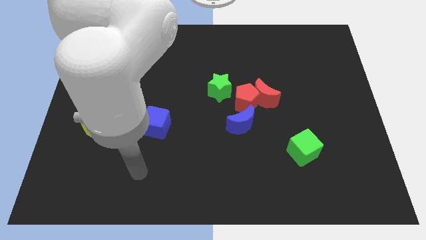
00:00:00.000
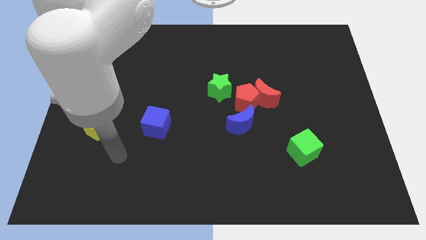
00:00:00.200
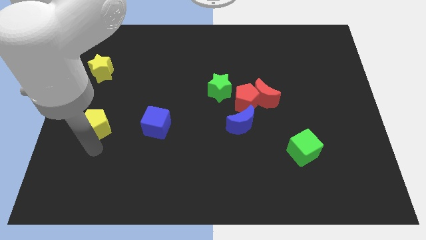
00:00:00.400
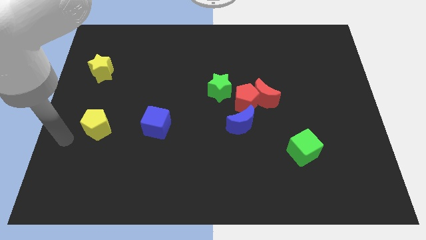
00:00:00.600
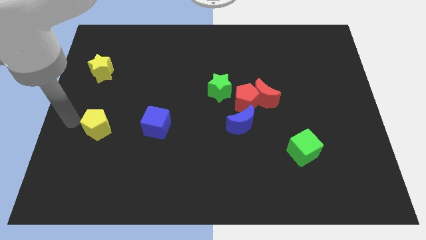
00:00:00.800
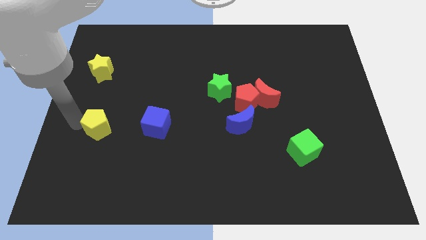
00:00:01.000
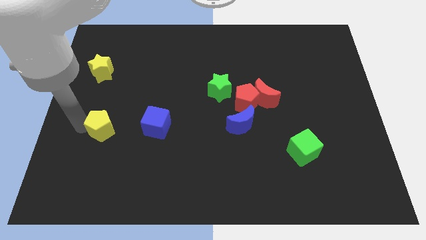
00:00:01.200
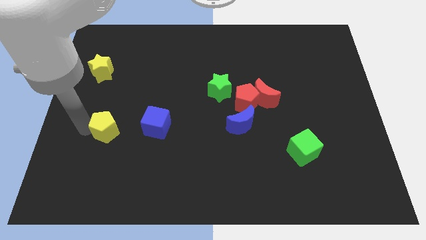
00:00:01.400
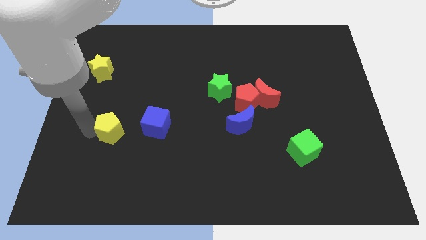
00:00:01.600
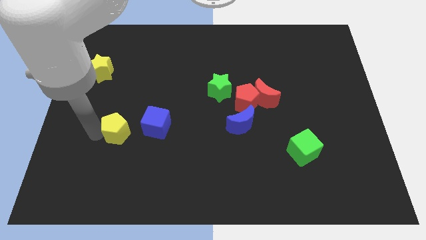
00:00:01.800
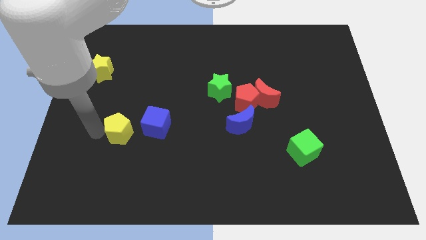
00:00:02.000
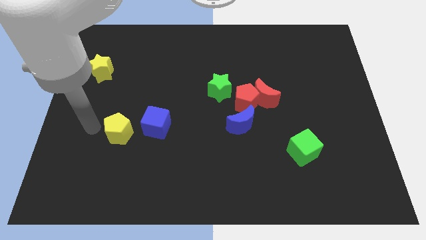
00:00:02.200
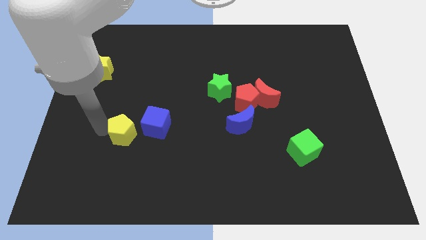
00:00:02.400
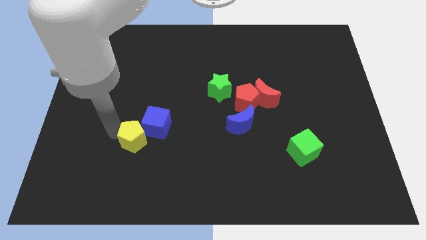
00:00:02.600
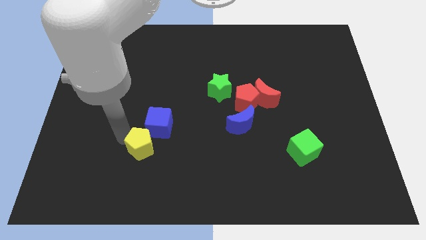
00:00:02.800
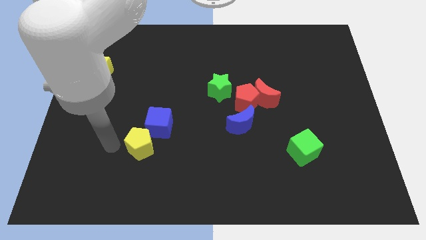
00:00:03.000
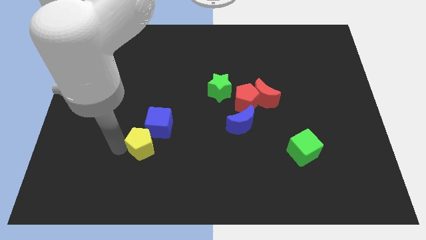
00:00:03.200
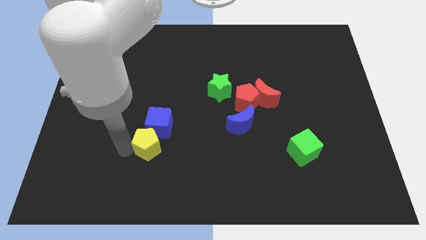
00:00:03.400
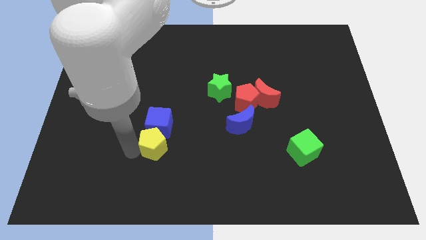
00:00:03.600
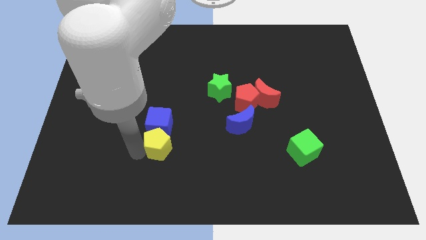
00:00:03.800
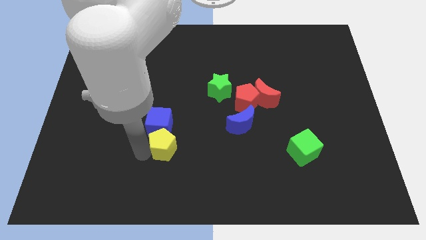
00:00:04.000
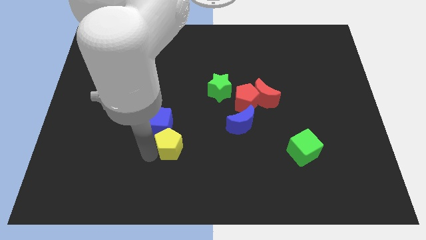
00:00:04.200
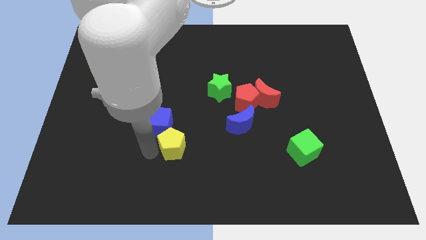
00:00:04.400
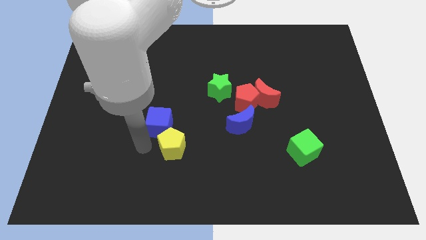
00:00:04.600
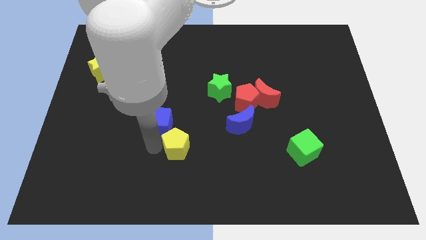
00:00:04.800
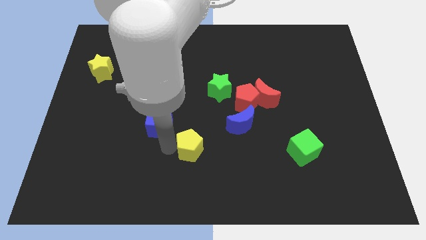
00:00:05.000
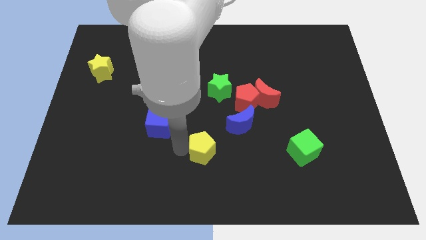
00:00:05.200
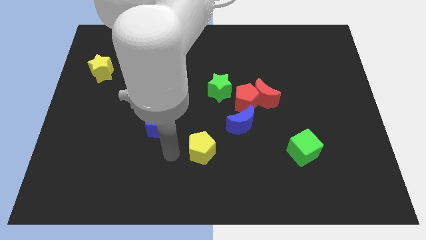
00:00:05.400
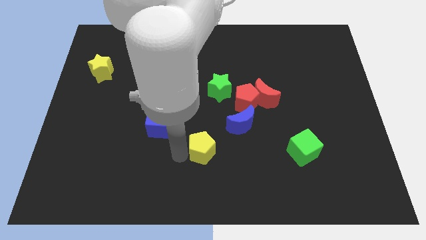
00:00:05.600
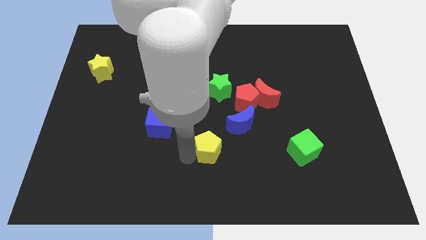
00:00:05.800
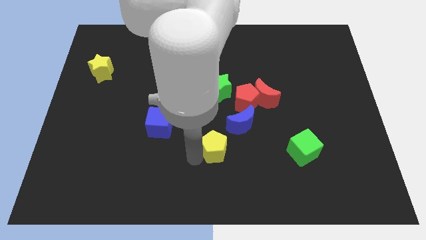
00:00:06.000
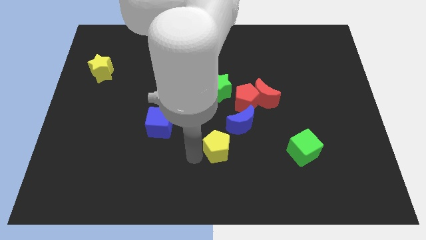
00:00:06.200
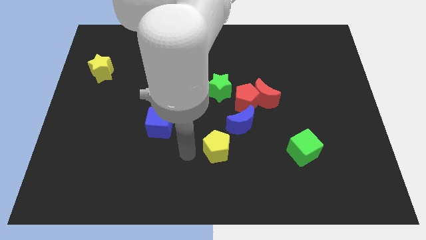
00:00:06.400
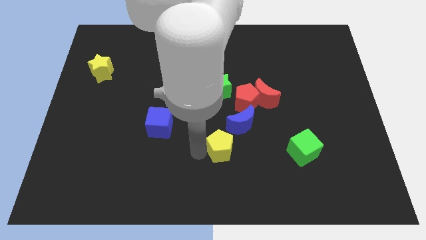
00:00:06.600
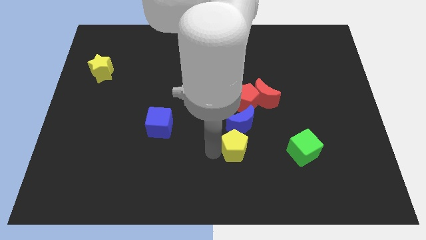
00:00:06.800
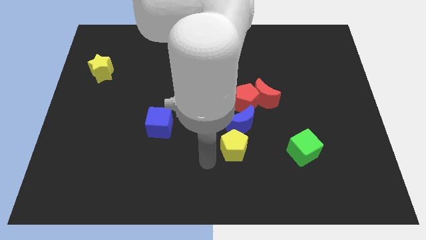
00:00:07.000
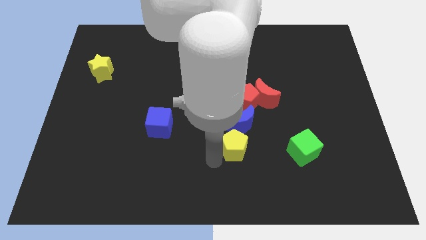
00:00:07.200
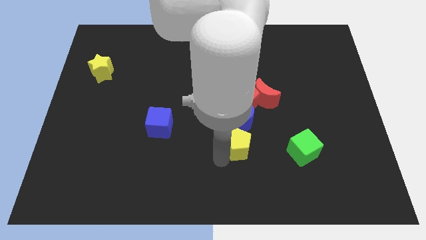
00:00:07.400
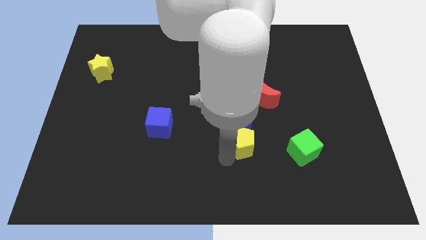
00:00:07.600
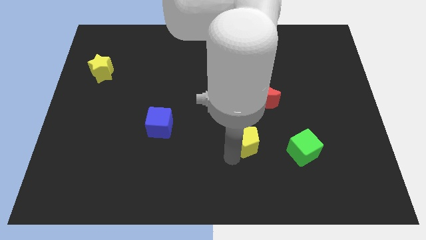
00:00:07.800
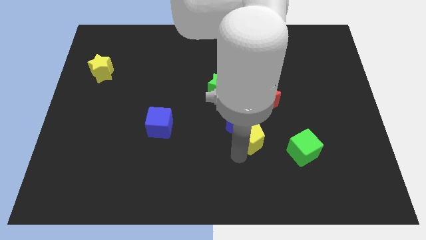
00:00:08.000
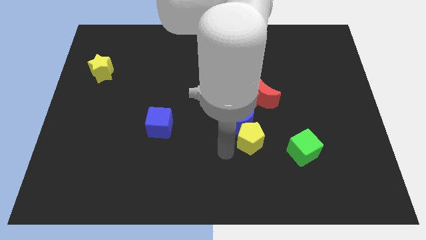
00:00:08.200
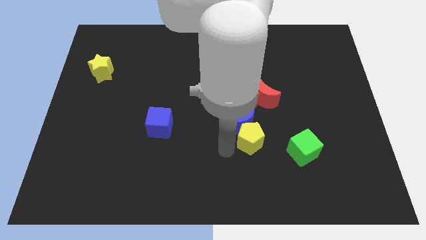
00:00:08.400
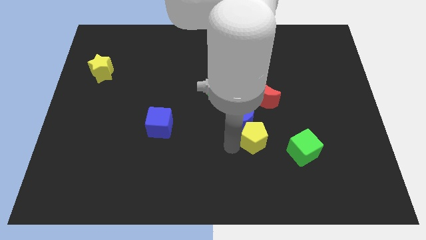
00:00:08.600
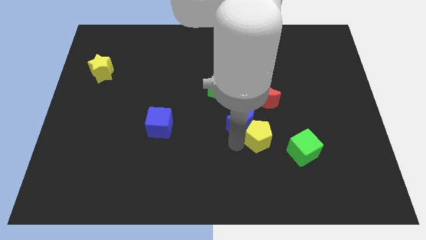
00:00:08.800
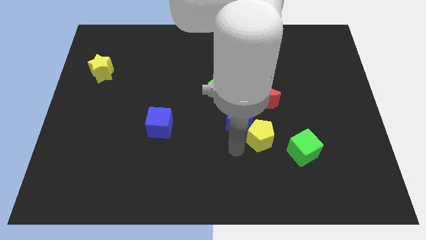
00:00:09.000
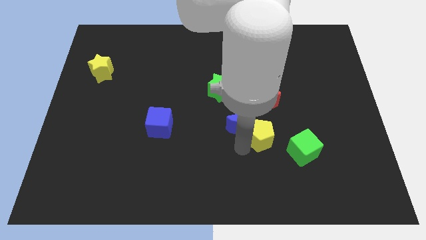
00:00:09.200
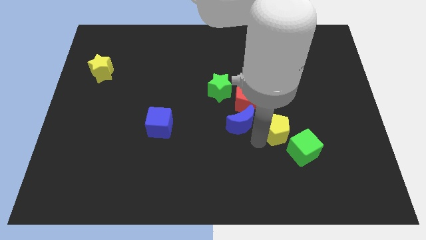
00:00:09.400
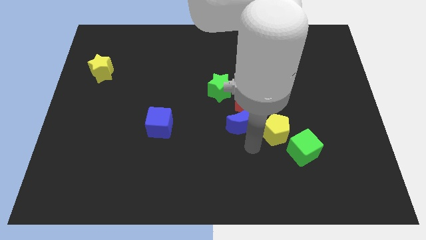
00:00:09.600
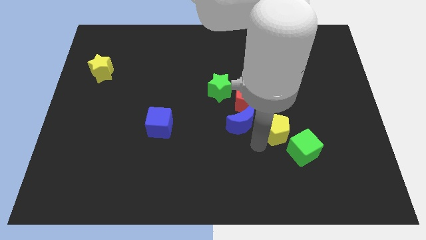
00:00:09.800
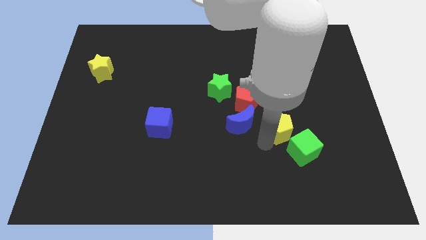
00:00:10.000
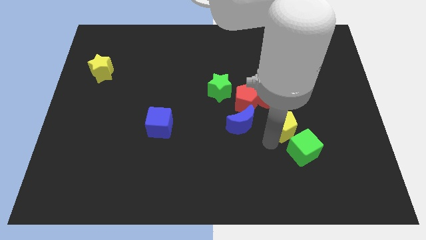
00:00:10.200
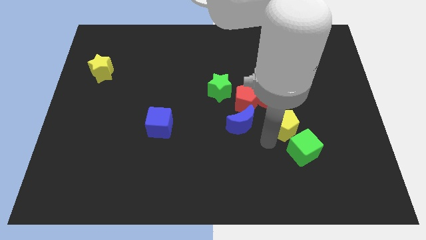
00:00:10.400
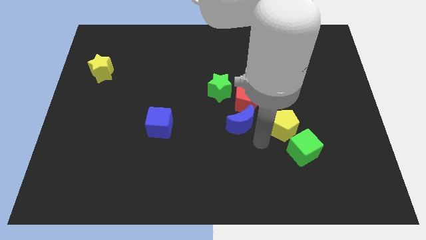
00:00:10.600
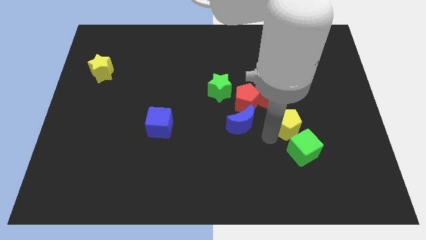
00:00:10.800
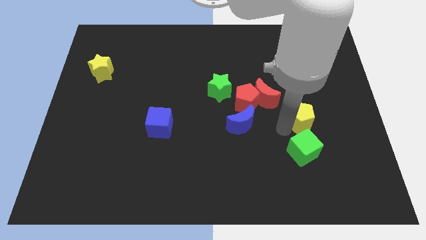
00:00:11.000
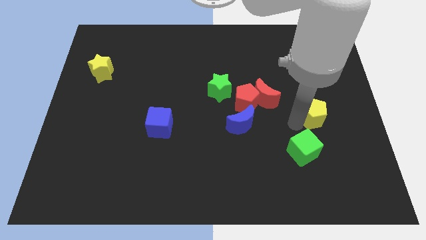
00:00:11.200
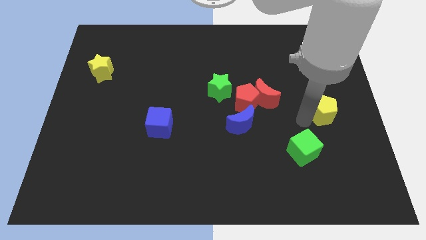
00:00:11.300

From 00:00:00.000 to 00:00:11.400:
push the yellow pentagon to the right side
